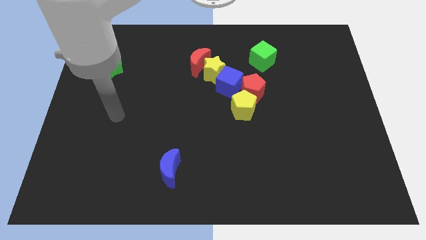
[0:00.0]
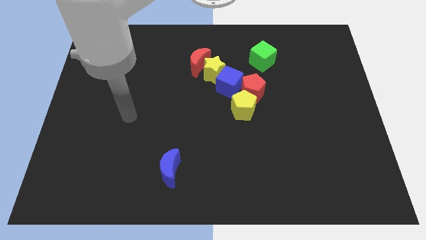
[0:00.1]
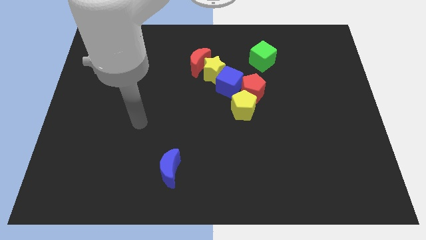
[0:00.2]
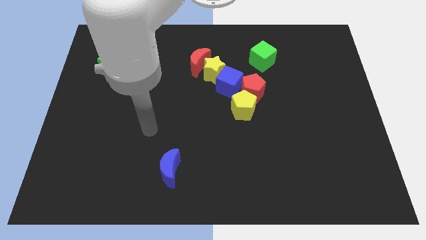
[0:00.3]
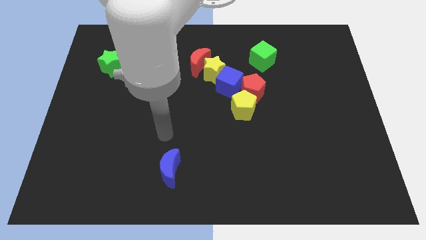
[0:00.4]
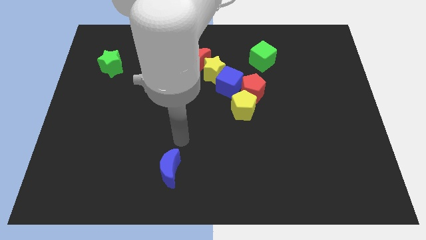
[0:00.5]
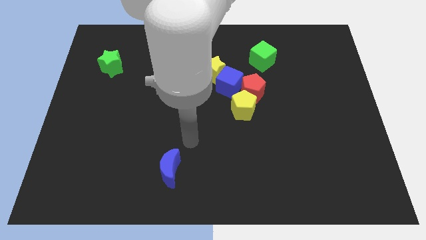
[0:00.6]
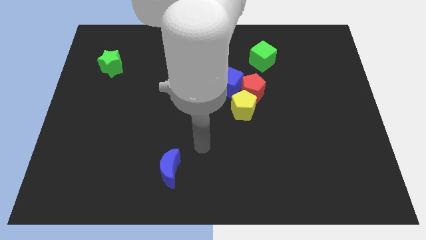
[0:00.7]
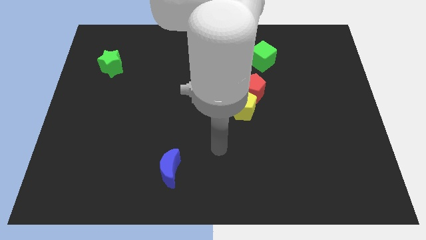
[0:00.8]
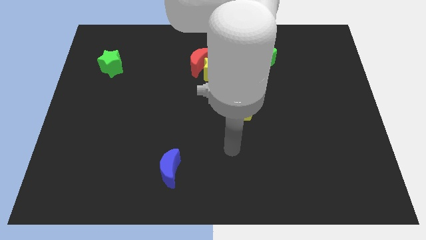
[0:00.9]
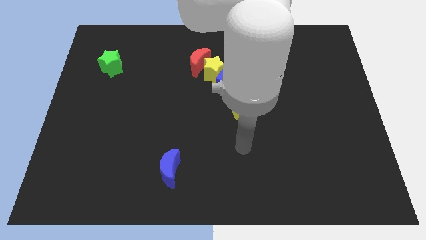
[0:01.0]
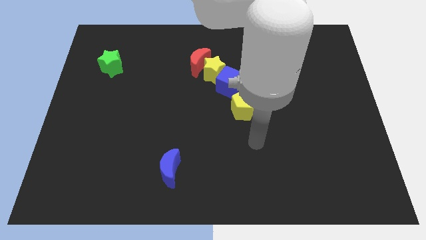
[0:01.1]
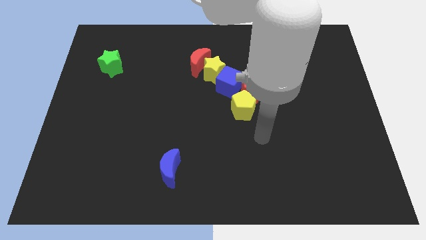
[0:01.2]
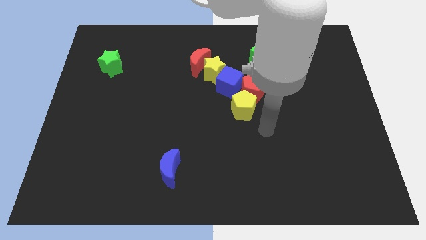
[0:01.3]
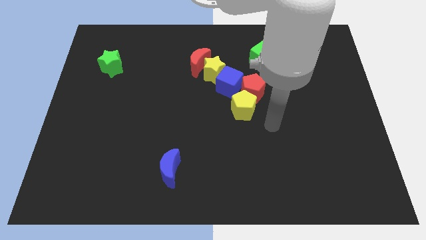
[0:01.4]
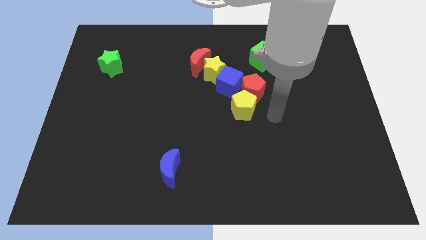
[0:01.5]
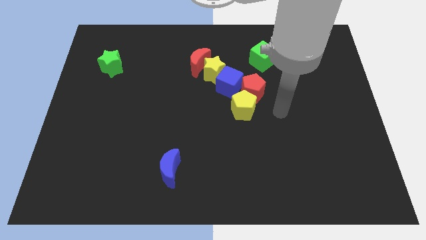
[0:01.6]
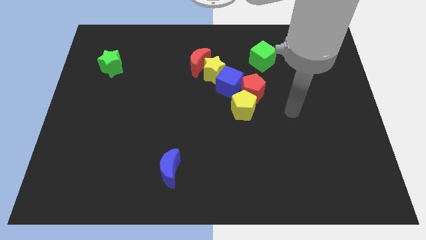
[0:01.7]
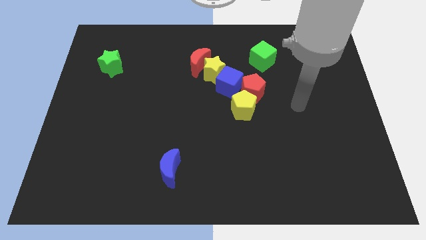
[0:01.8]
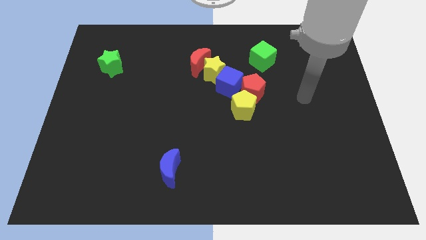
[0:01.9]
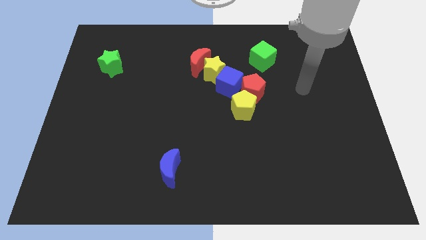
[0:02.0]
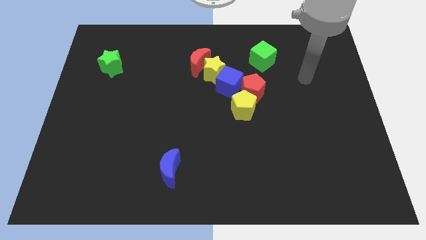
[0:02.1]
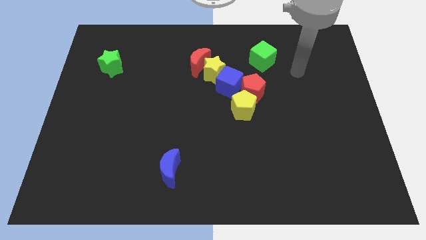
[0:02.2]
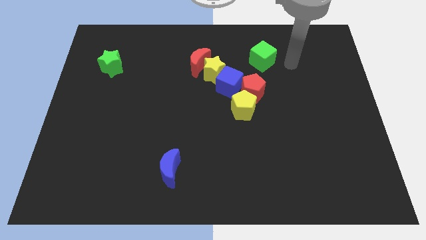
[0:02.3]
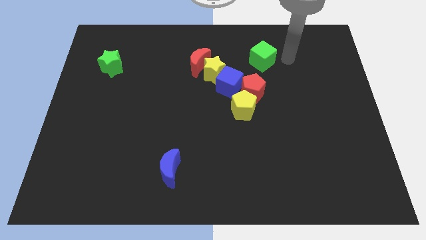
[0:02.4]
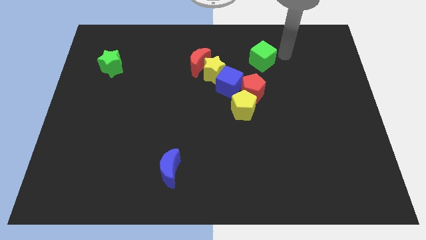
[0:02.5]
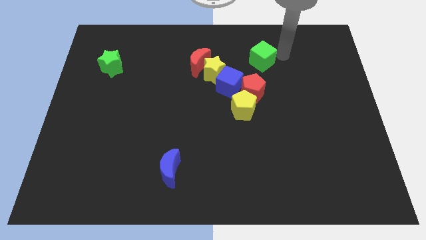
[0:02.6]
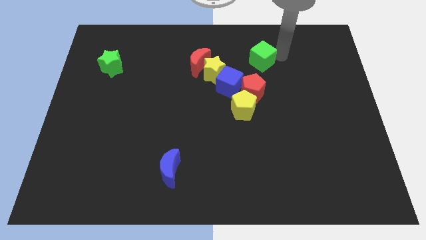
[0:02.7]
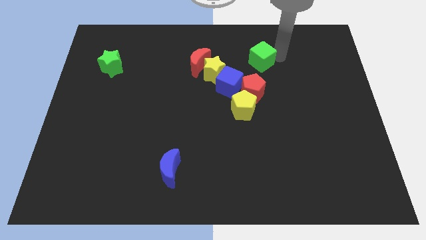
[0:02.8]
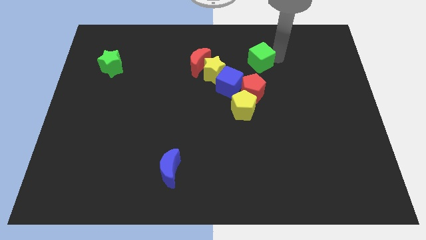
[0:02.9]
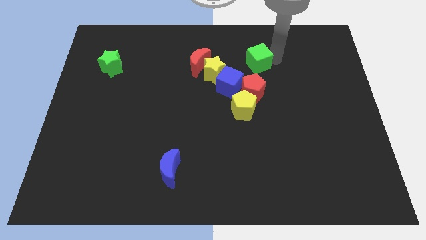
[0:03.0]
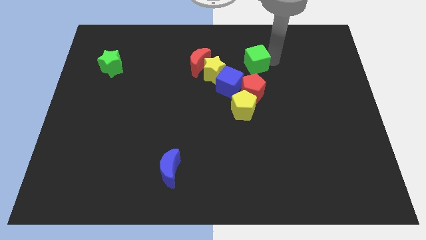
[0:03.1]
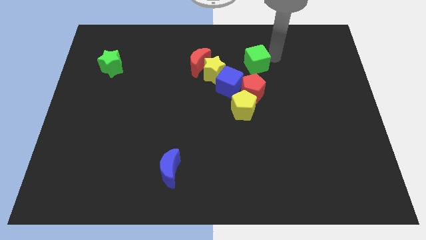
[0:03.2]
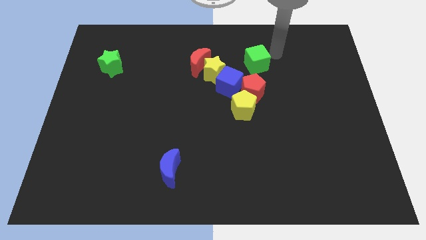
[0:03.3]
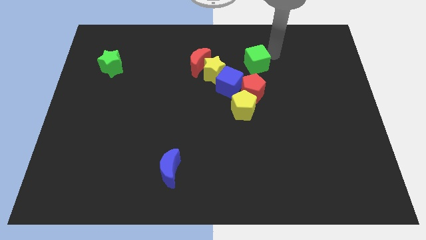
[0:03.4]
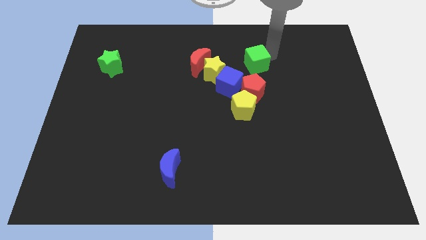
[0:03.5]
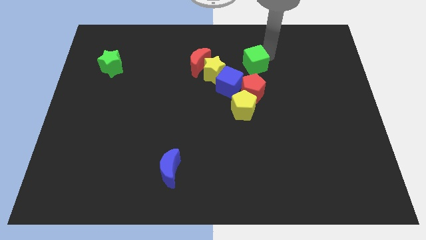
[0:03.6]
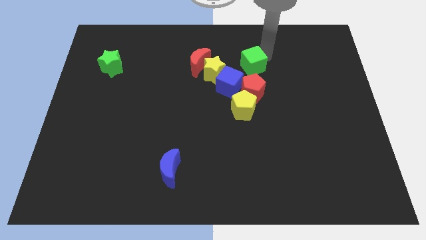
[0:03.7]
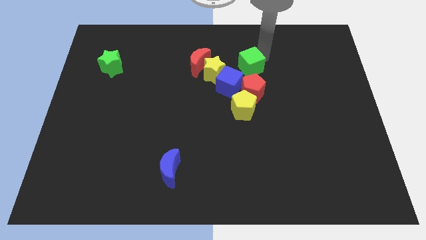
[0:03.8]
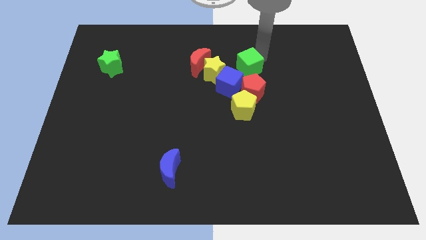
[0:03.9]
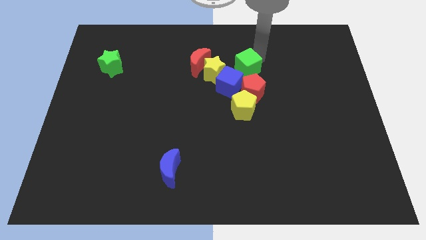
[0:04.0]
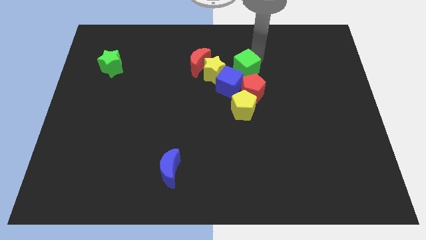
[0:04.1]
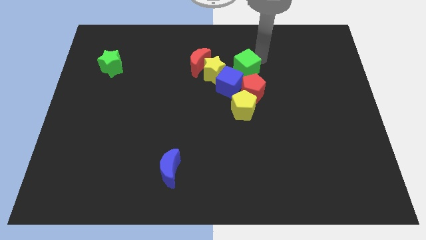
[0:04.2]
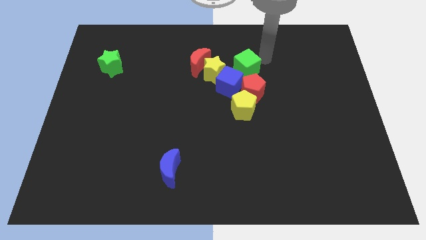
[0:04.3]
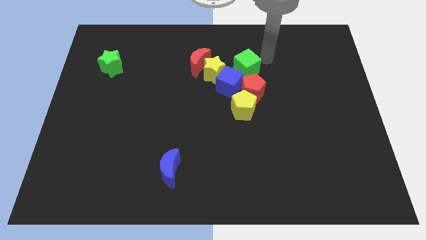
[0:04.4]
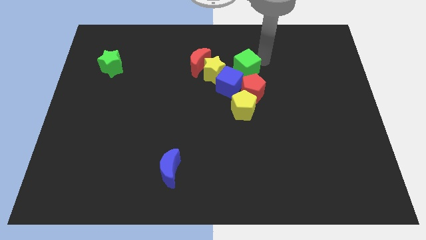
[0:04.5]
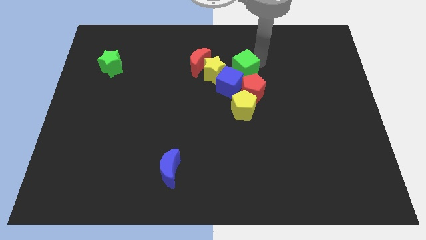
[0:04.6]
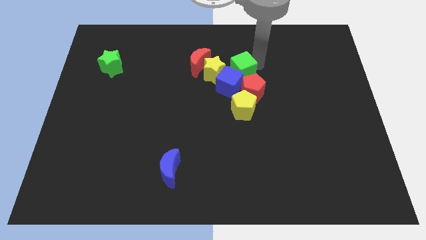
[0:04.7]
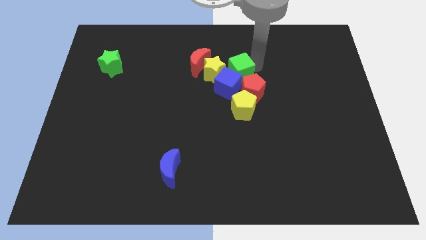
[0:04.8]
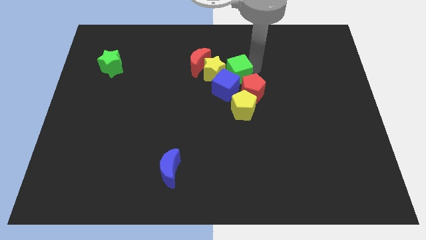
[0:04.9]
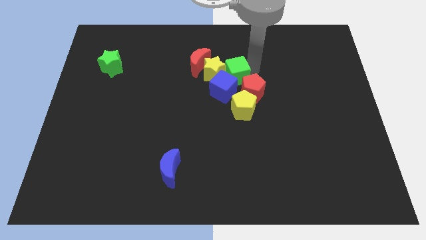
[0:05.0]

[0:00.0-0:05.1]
move the green cube to the yellow star

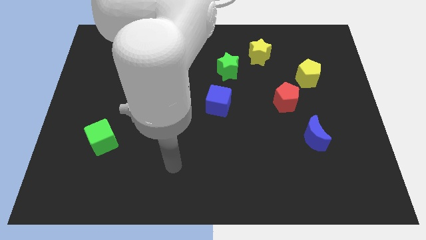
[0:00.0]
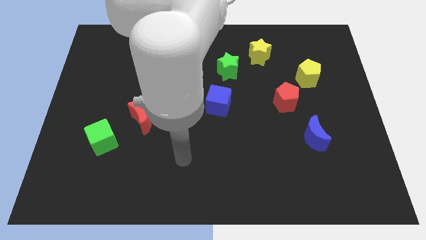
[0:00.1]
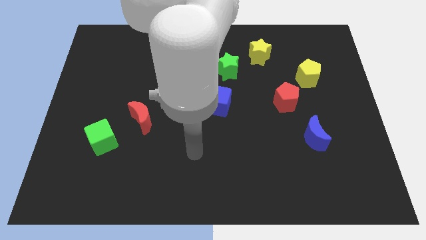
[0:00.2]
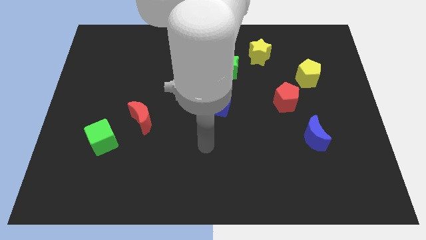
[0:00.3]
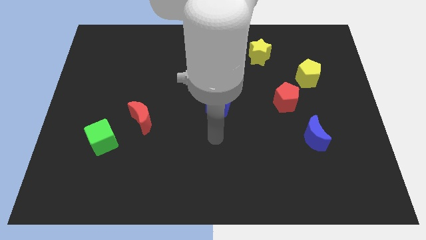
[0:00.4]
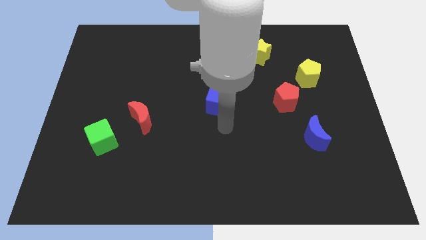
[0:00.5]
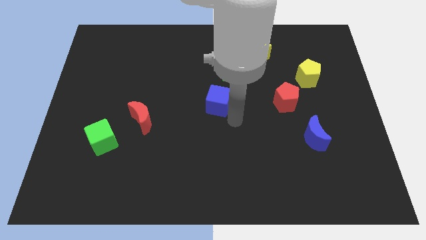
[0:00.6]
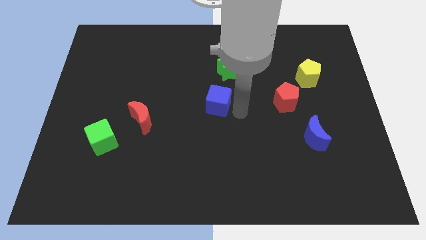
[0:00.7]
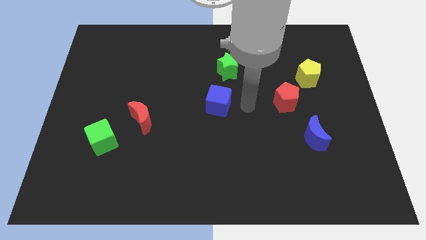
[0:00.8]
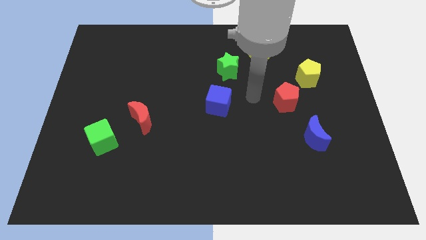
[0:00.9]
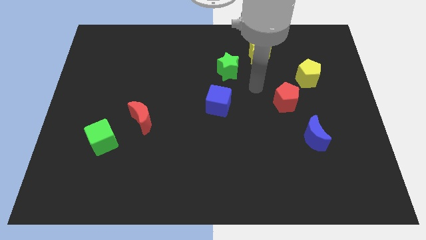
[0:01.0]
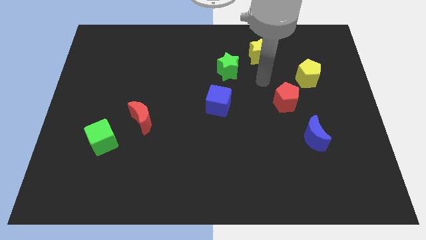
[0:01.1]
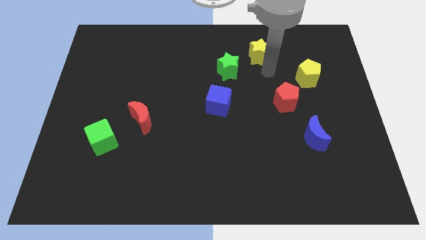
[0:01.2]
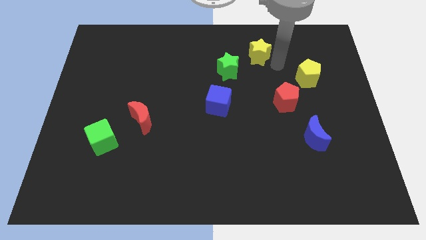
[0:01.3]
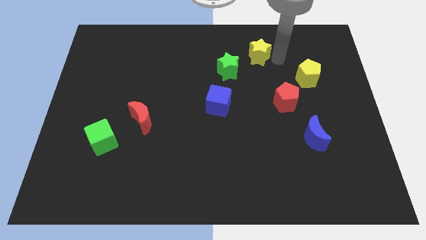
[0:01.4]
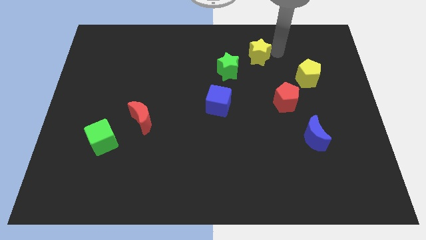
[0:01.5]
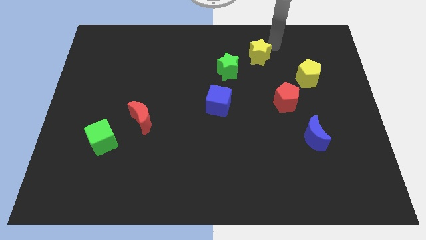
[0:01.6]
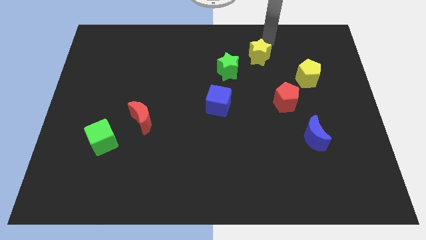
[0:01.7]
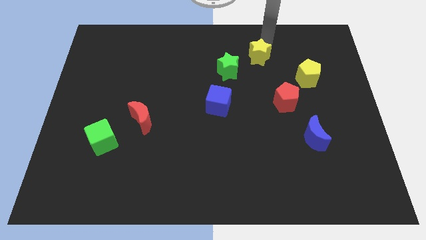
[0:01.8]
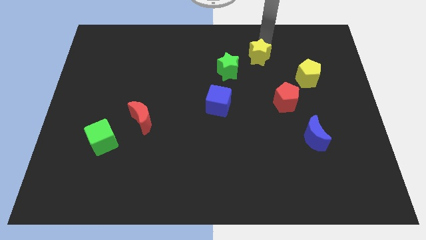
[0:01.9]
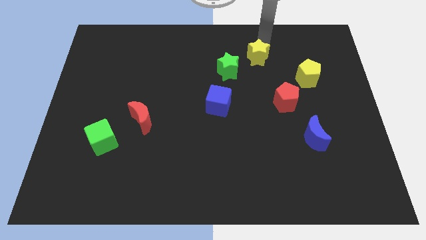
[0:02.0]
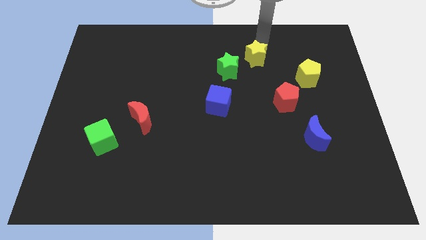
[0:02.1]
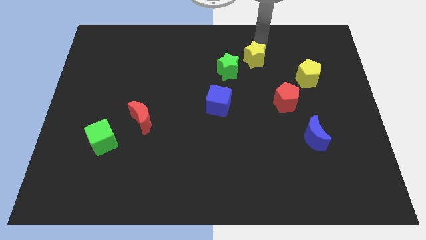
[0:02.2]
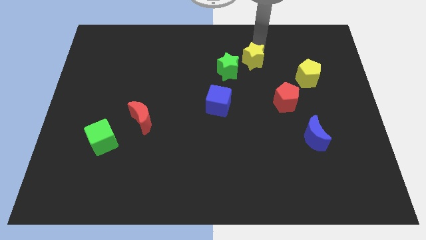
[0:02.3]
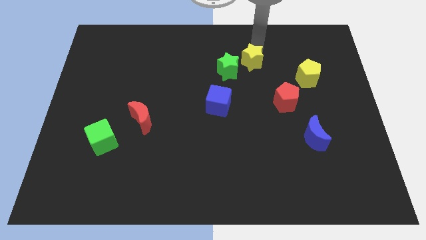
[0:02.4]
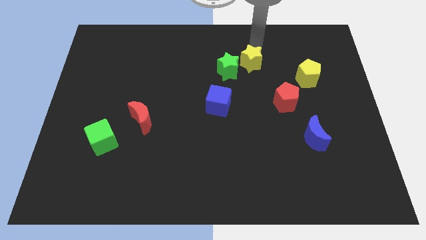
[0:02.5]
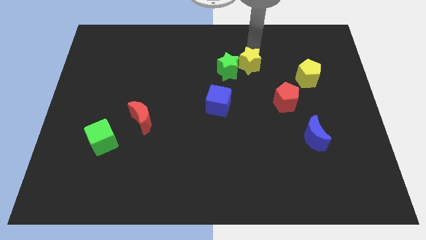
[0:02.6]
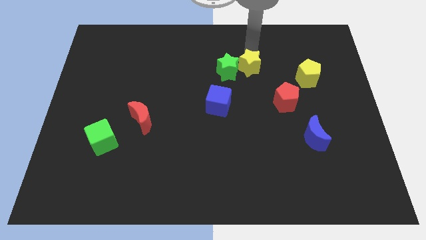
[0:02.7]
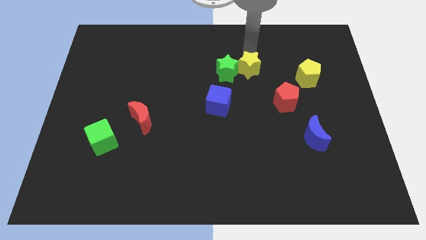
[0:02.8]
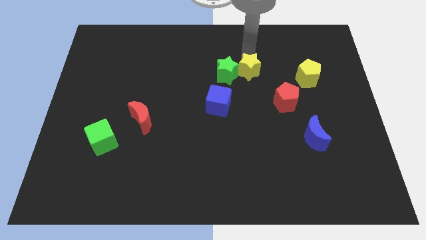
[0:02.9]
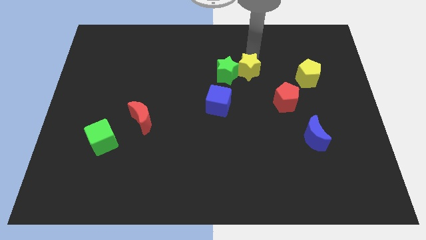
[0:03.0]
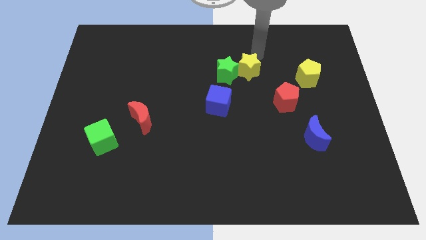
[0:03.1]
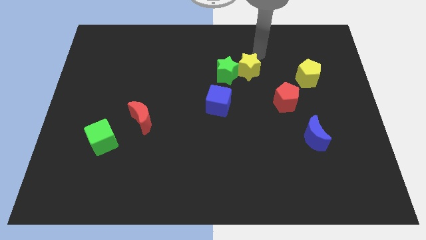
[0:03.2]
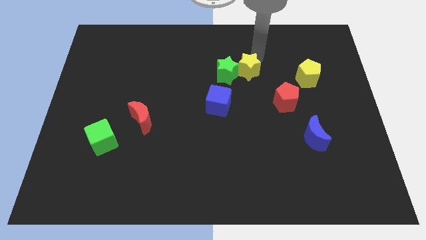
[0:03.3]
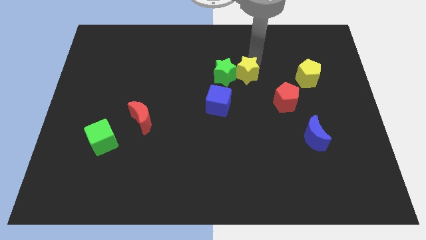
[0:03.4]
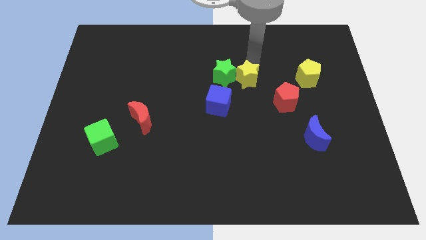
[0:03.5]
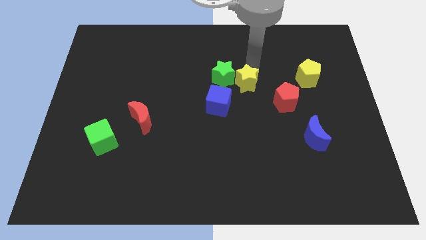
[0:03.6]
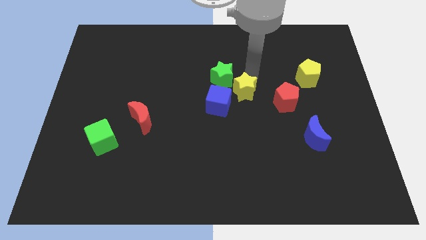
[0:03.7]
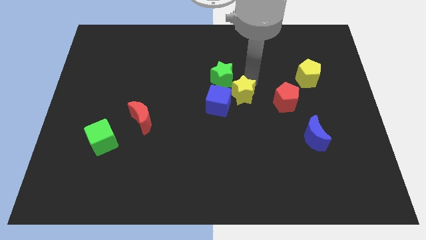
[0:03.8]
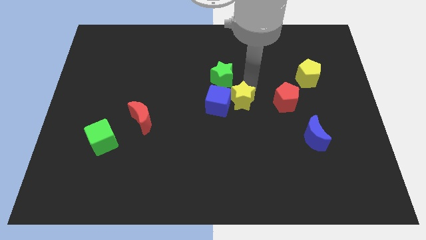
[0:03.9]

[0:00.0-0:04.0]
push the yellow star next to the blue cube
